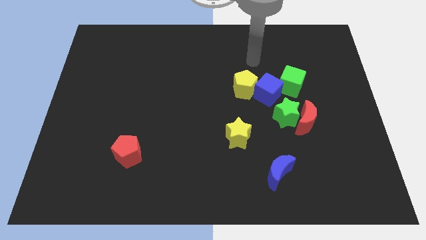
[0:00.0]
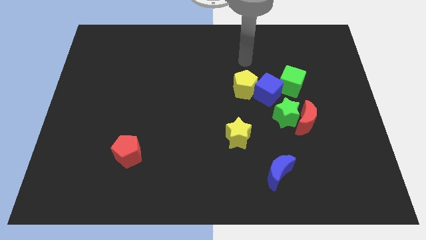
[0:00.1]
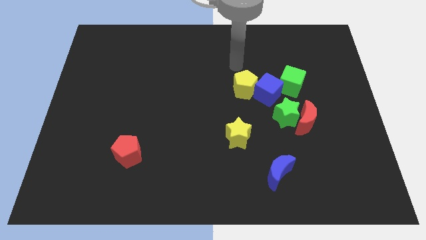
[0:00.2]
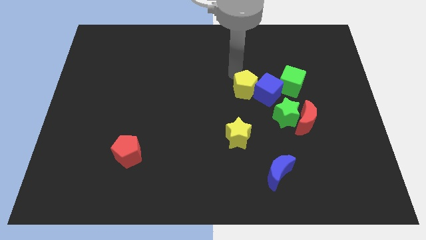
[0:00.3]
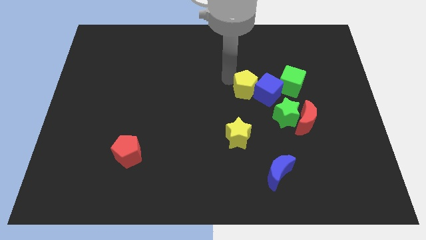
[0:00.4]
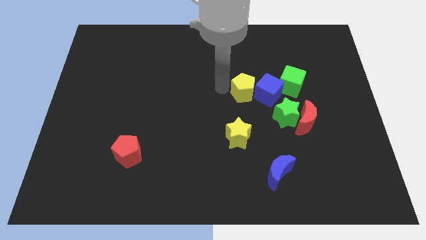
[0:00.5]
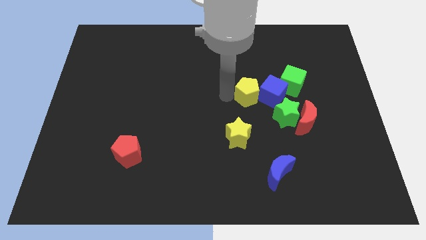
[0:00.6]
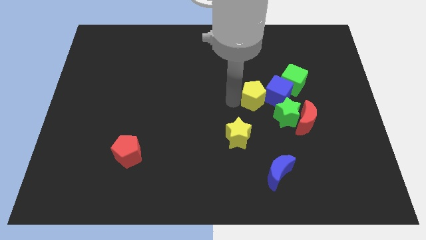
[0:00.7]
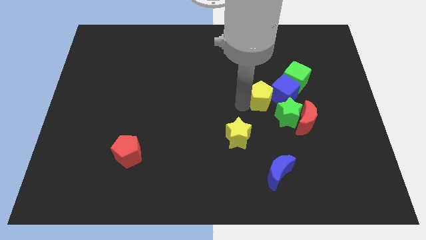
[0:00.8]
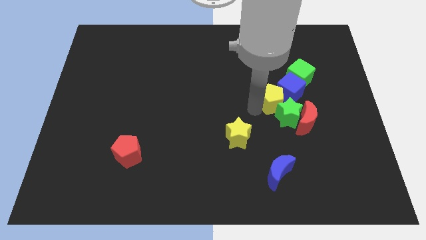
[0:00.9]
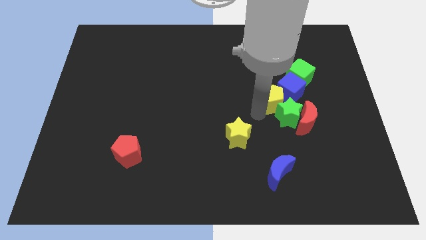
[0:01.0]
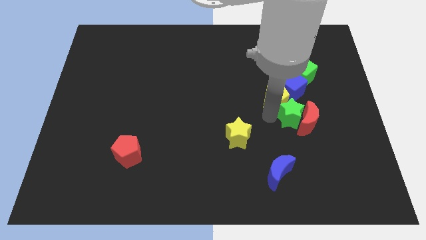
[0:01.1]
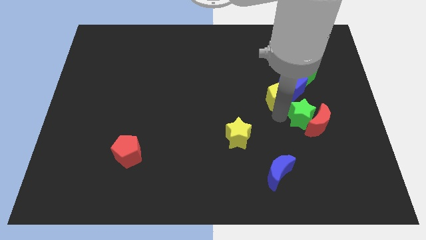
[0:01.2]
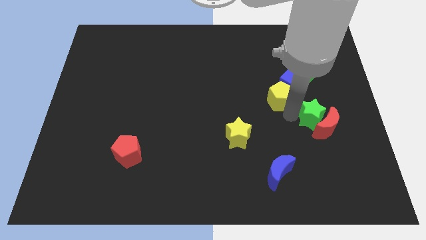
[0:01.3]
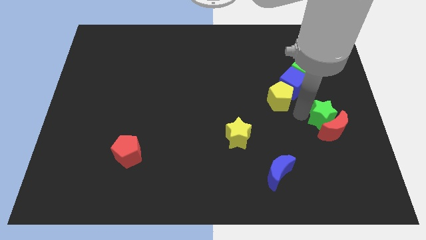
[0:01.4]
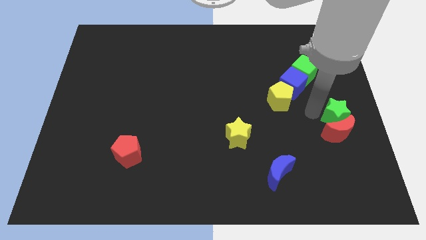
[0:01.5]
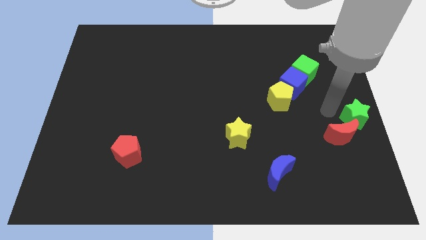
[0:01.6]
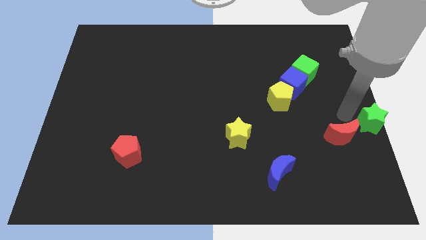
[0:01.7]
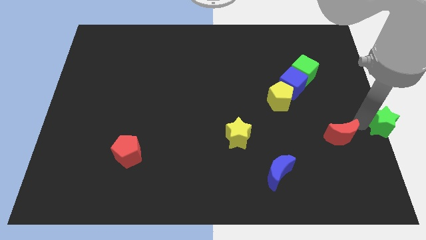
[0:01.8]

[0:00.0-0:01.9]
move the red moon away from the green star

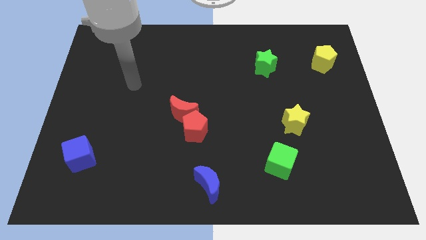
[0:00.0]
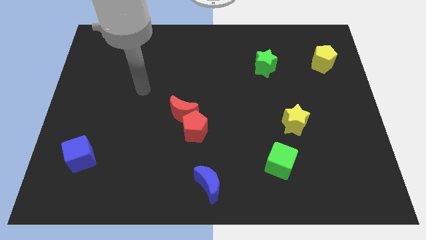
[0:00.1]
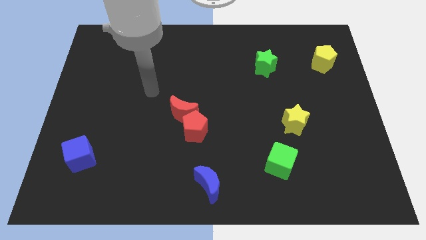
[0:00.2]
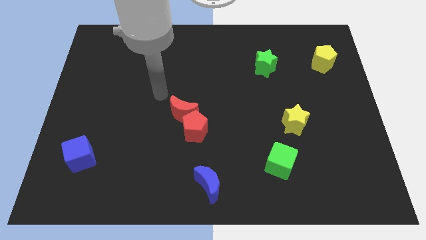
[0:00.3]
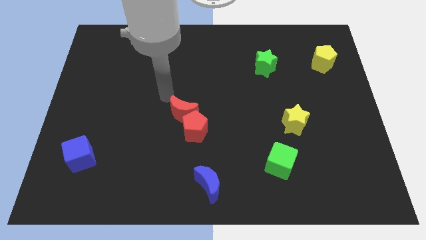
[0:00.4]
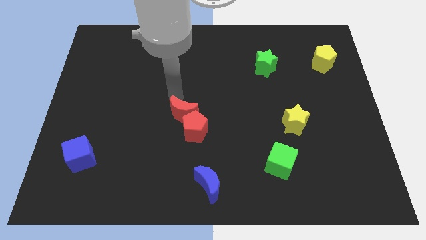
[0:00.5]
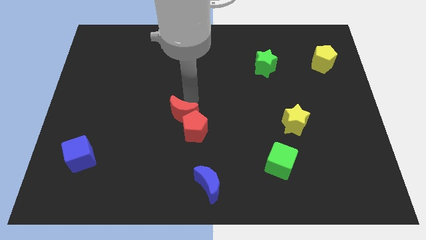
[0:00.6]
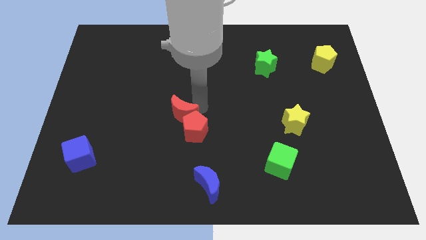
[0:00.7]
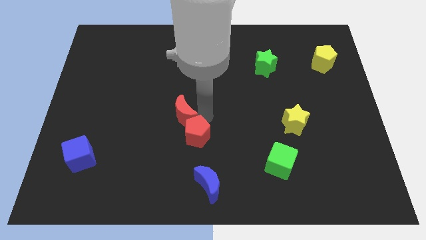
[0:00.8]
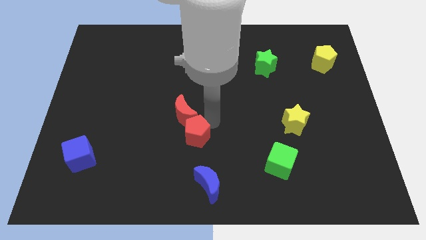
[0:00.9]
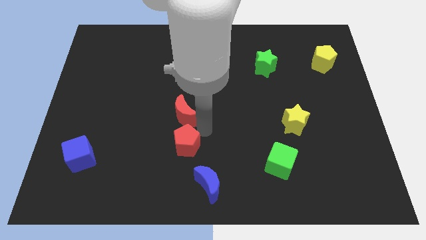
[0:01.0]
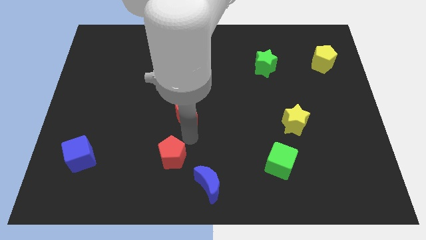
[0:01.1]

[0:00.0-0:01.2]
move the red moon away from the red pentagon

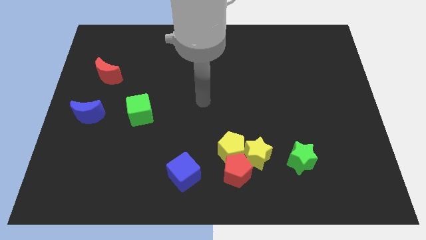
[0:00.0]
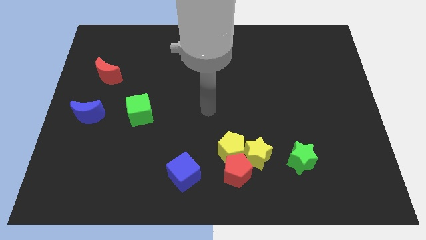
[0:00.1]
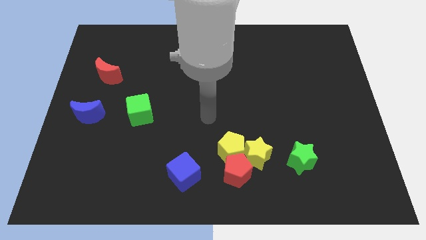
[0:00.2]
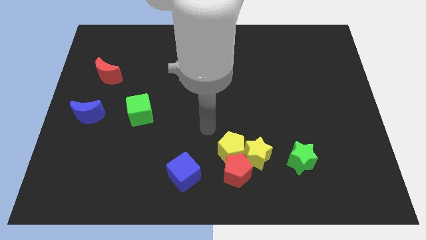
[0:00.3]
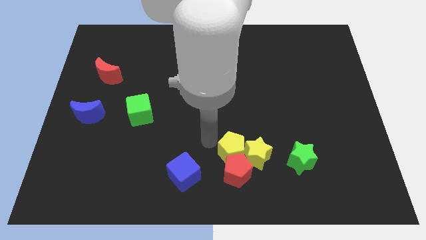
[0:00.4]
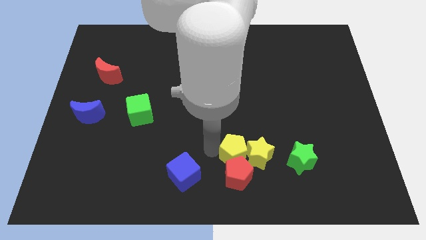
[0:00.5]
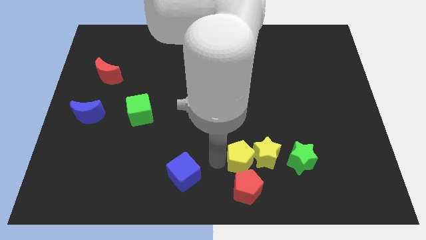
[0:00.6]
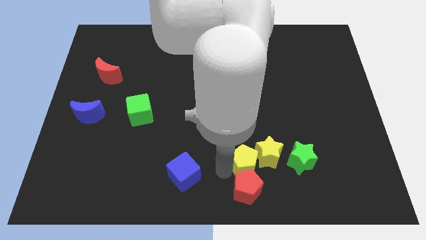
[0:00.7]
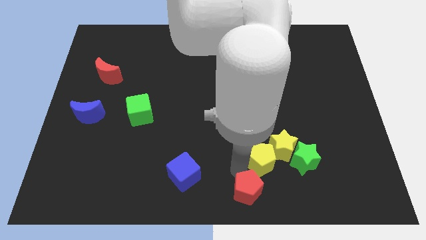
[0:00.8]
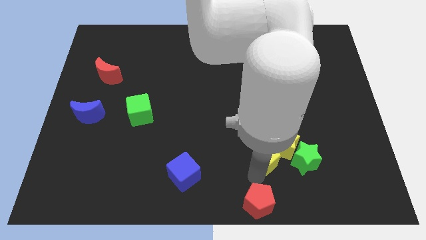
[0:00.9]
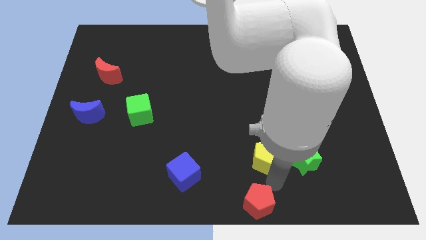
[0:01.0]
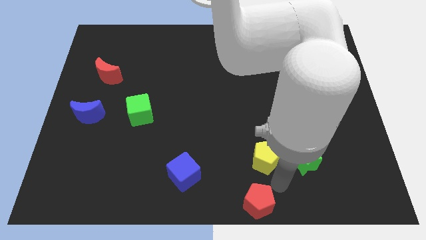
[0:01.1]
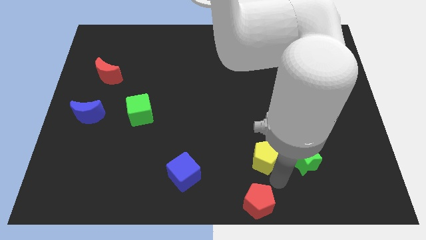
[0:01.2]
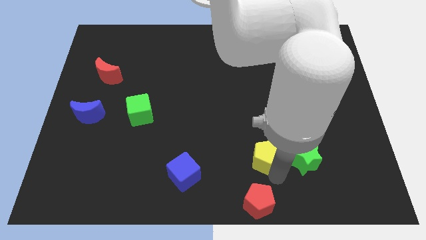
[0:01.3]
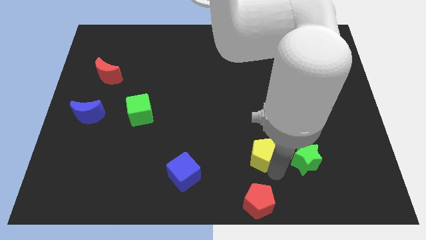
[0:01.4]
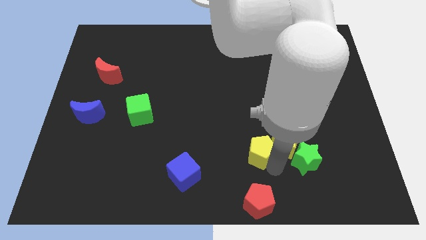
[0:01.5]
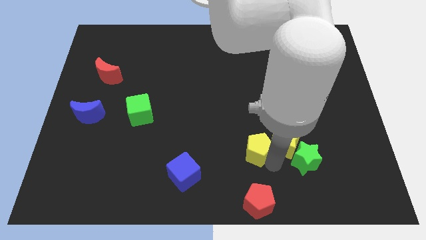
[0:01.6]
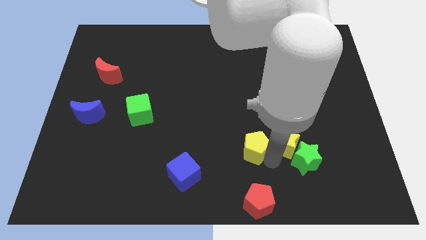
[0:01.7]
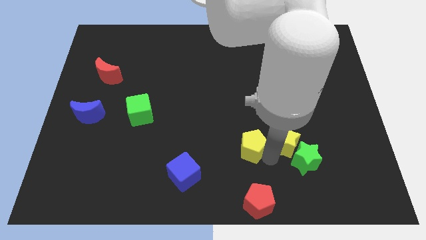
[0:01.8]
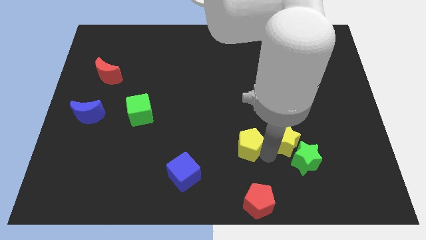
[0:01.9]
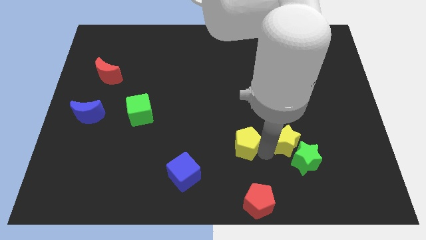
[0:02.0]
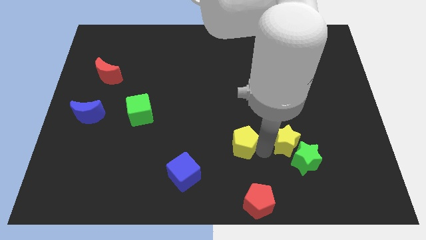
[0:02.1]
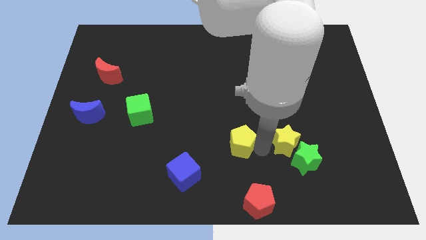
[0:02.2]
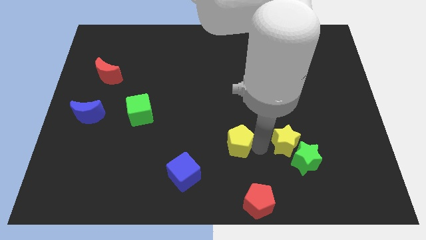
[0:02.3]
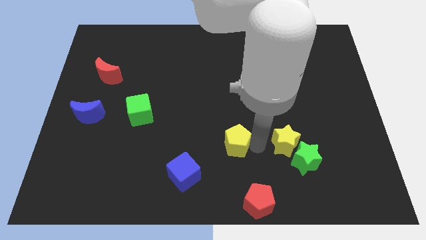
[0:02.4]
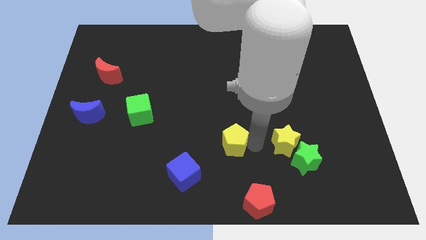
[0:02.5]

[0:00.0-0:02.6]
pull the yellow pentagon apart from the red pentagon and yellow star

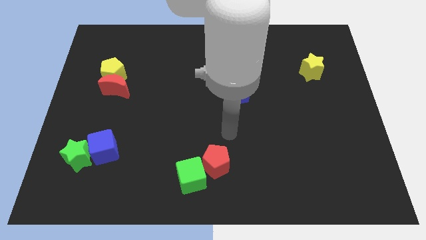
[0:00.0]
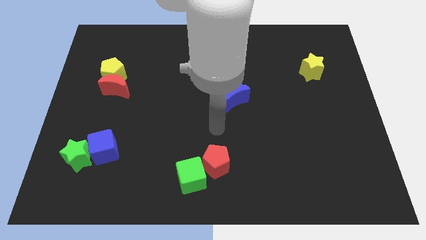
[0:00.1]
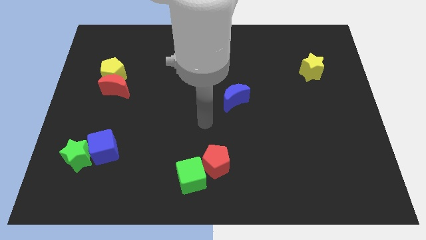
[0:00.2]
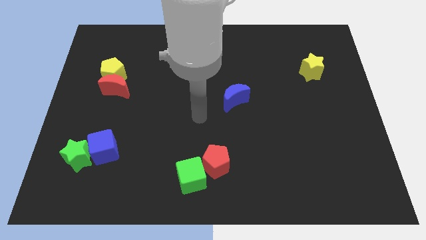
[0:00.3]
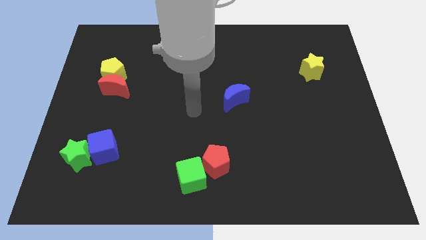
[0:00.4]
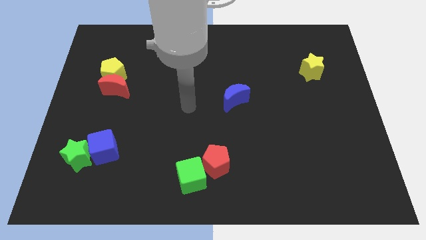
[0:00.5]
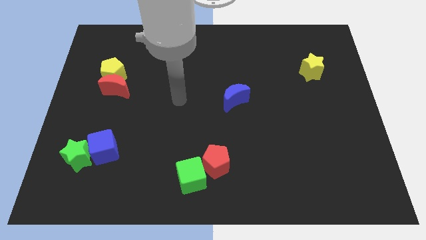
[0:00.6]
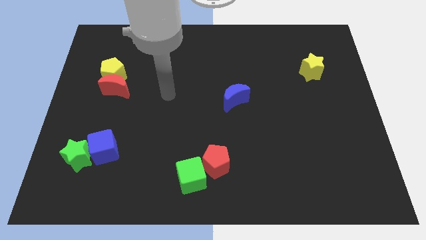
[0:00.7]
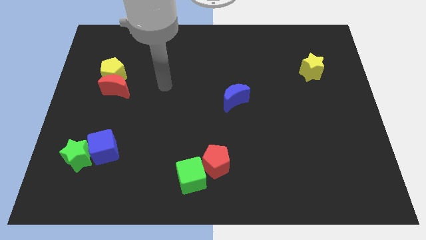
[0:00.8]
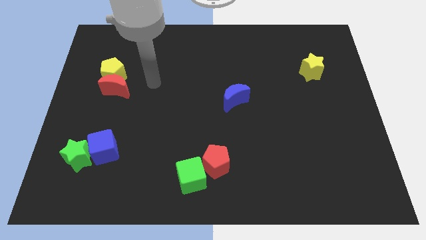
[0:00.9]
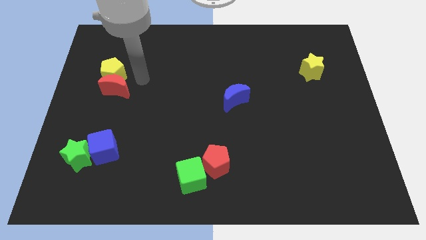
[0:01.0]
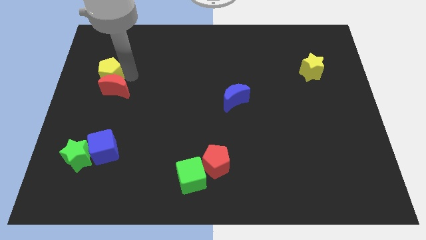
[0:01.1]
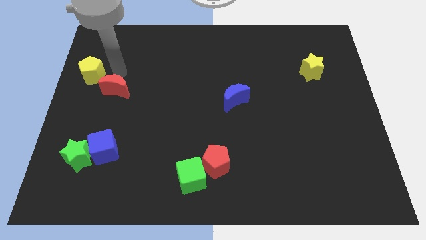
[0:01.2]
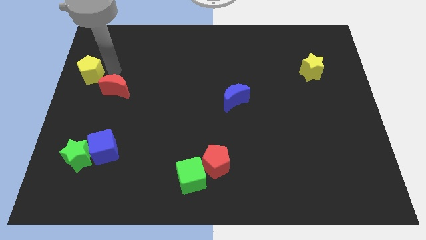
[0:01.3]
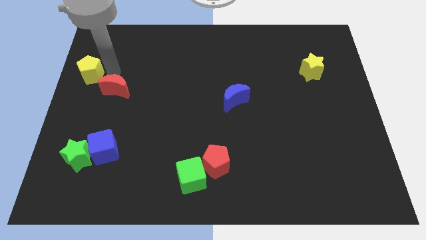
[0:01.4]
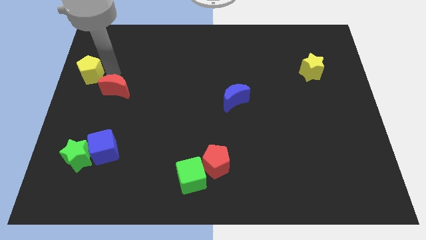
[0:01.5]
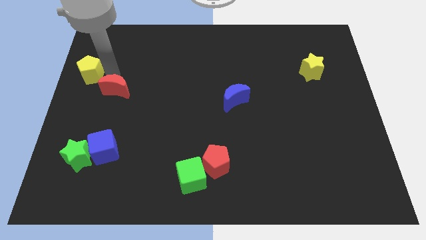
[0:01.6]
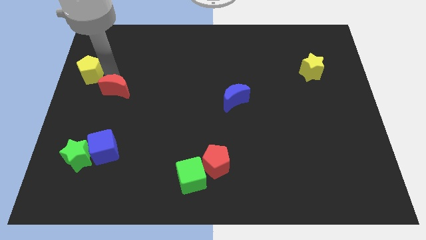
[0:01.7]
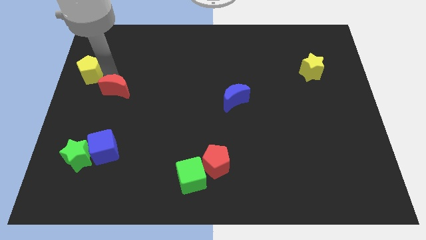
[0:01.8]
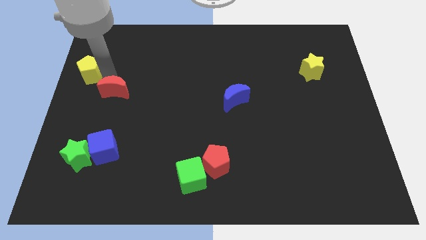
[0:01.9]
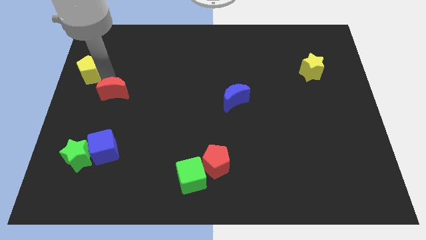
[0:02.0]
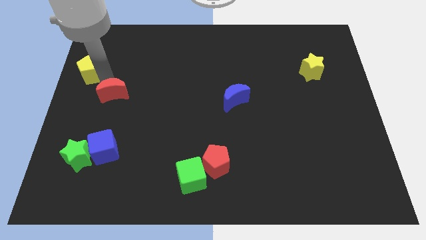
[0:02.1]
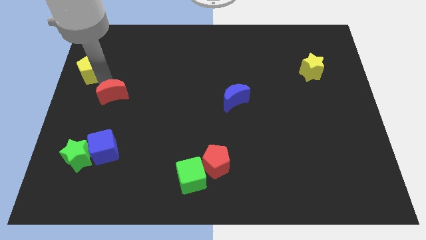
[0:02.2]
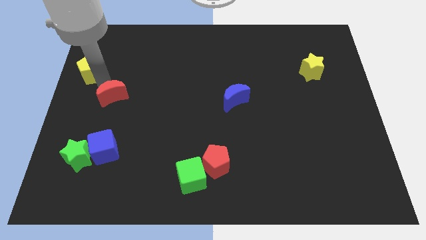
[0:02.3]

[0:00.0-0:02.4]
move the red moon away from the yellow pentagon

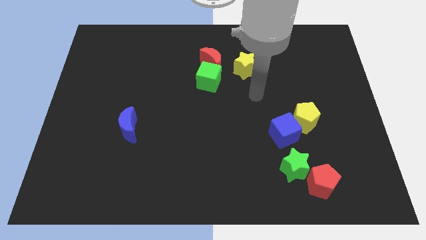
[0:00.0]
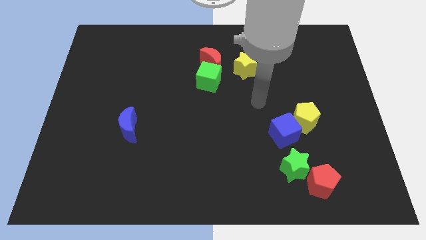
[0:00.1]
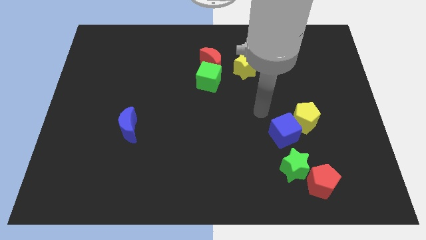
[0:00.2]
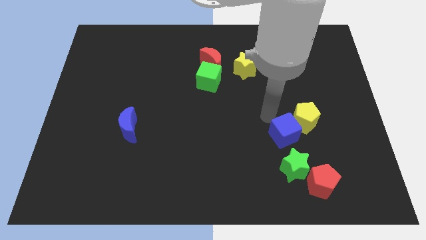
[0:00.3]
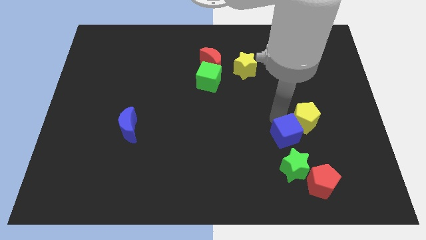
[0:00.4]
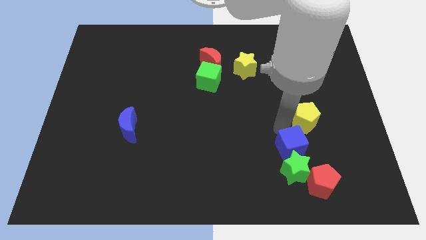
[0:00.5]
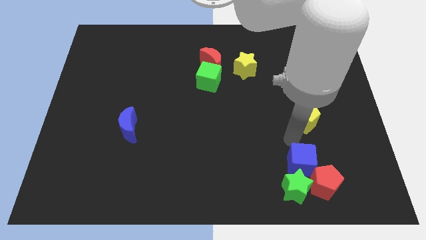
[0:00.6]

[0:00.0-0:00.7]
move the yellow pentagon away from the blue cube

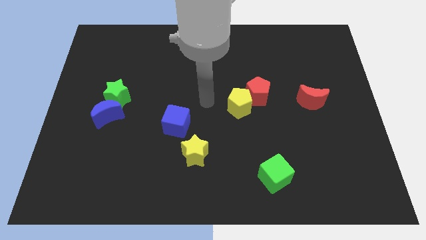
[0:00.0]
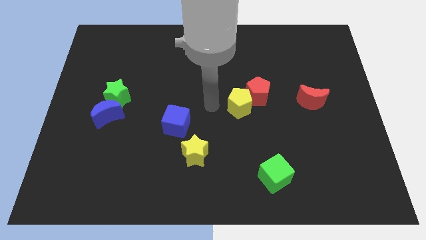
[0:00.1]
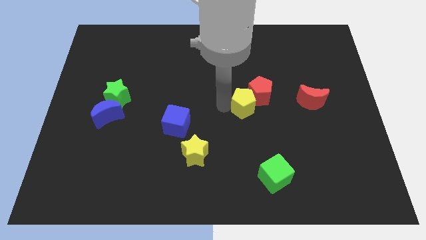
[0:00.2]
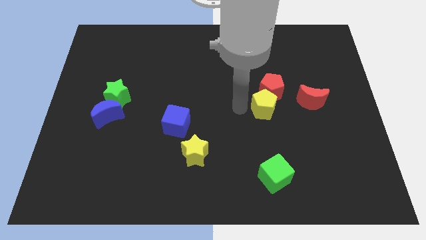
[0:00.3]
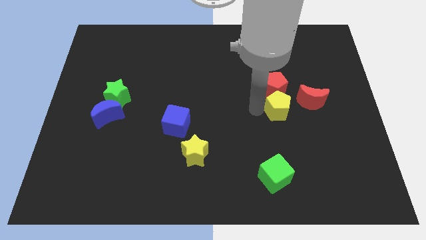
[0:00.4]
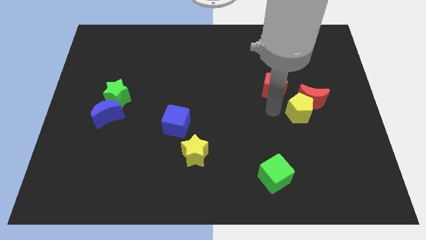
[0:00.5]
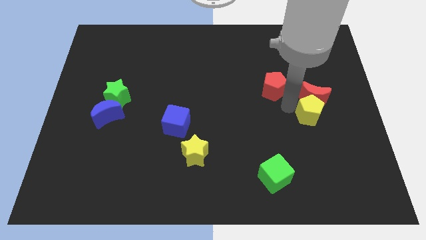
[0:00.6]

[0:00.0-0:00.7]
pull the red pentagon apart from the yellow pentagon
